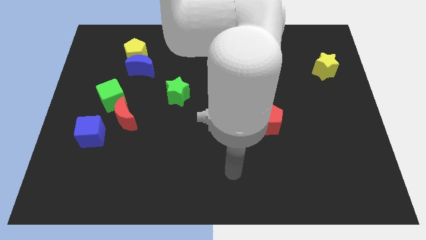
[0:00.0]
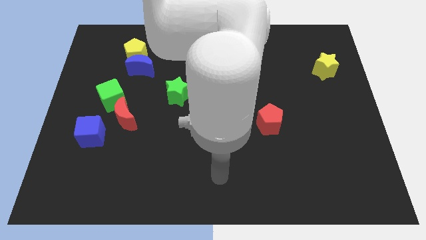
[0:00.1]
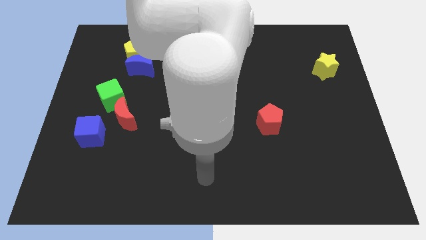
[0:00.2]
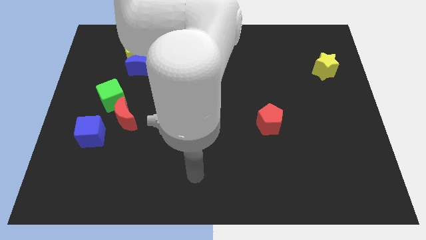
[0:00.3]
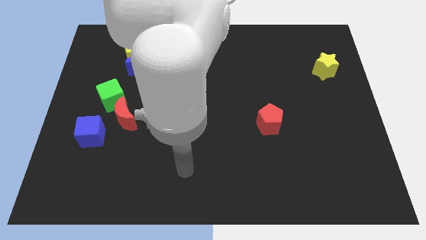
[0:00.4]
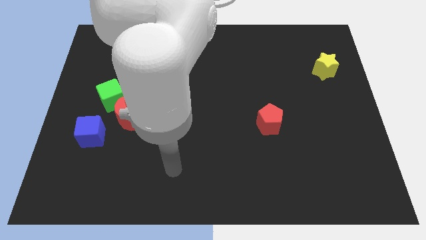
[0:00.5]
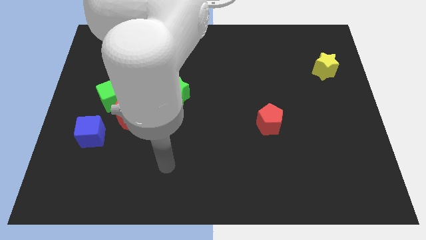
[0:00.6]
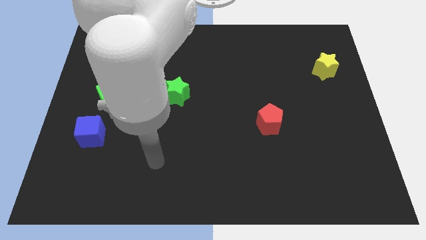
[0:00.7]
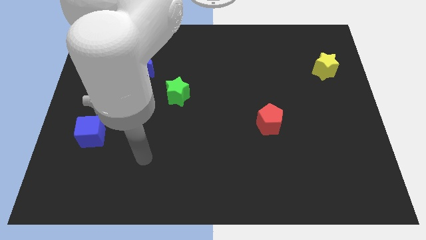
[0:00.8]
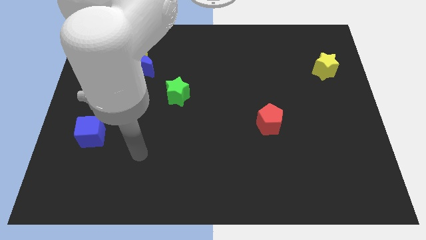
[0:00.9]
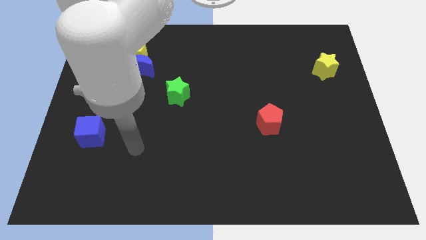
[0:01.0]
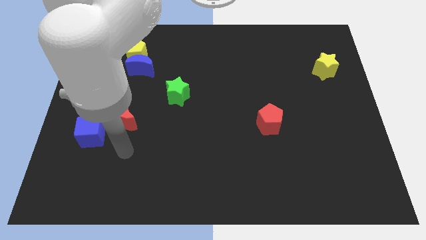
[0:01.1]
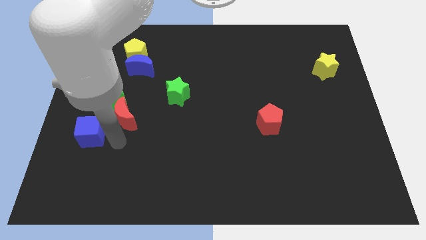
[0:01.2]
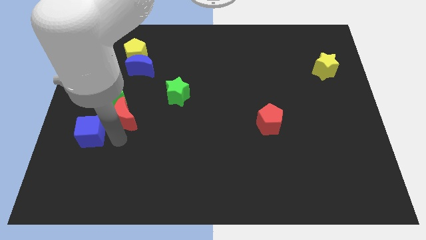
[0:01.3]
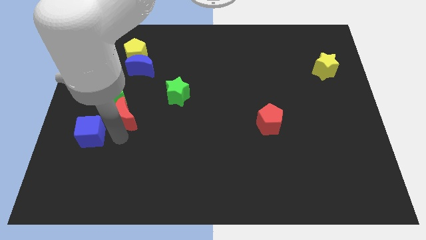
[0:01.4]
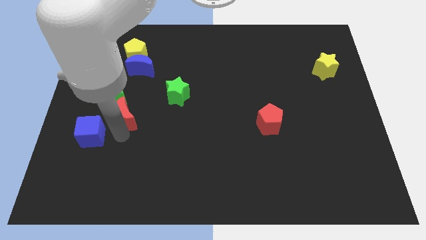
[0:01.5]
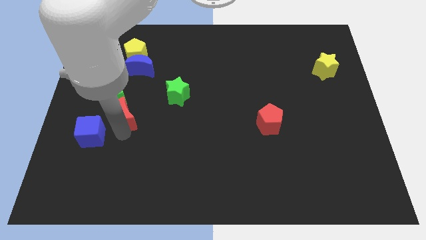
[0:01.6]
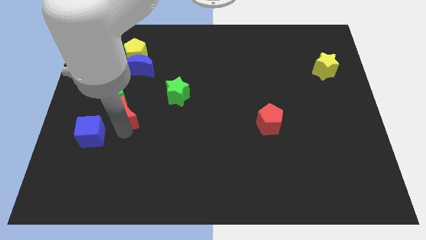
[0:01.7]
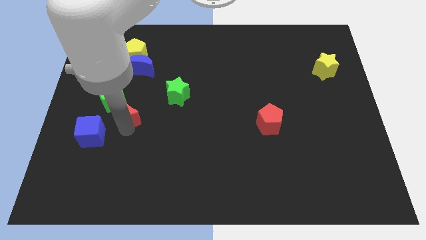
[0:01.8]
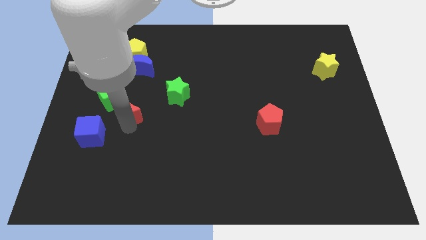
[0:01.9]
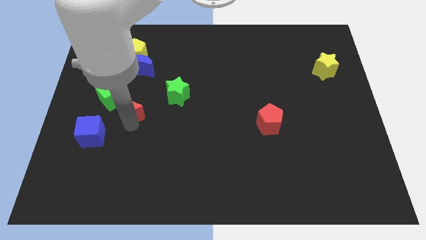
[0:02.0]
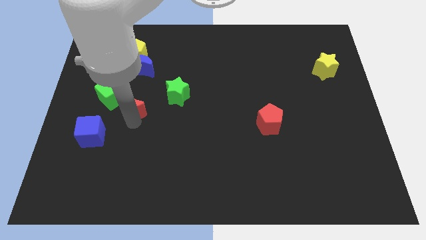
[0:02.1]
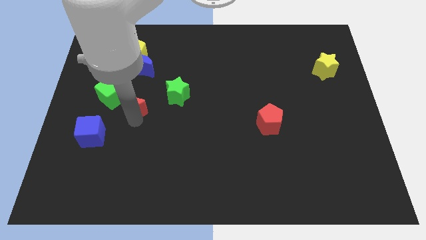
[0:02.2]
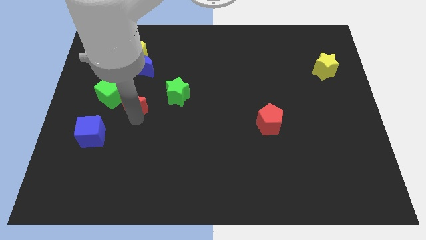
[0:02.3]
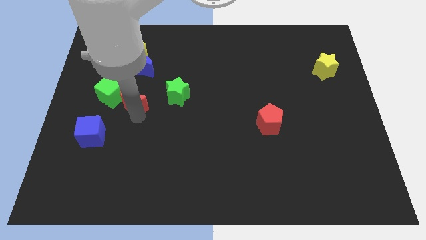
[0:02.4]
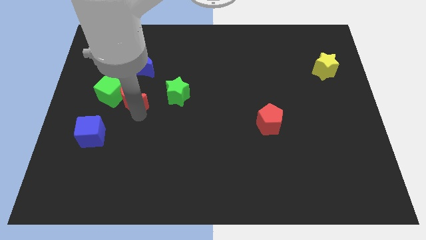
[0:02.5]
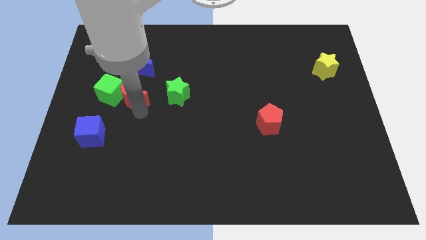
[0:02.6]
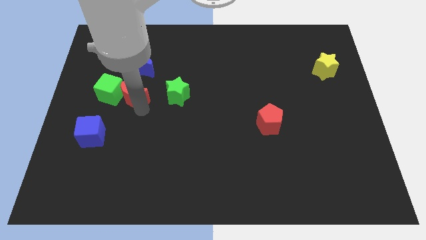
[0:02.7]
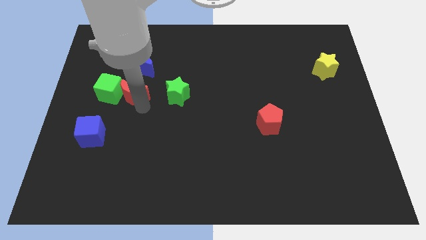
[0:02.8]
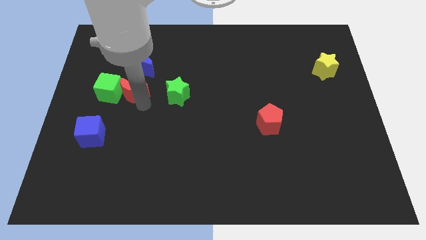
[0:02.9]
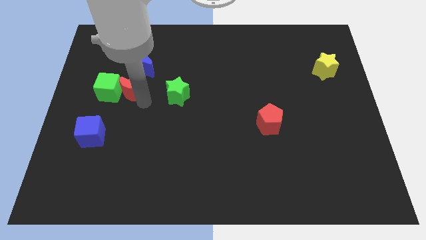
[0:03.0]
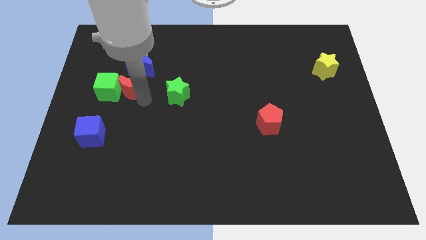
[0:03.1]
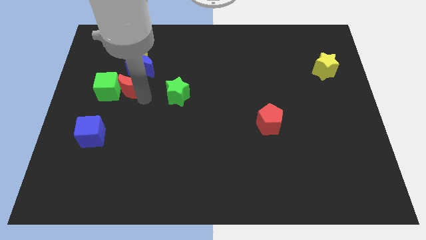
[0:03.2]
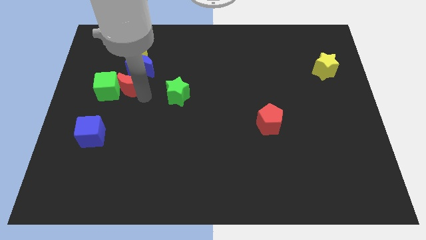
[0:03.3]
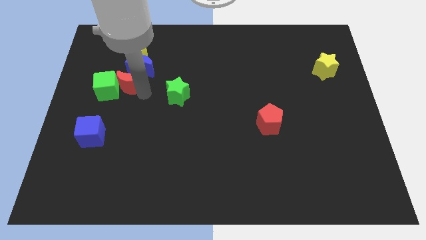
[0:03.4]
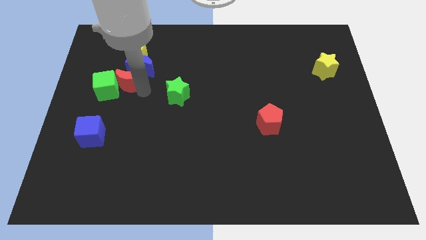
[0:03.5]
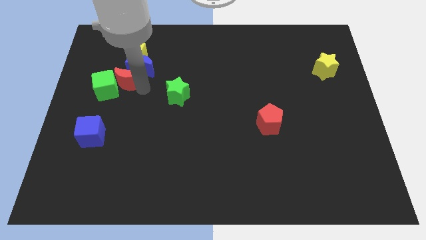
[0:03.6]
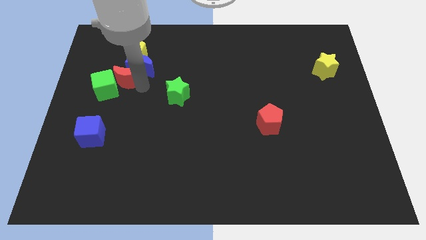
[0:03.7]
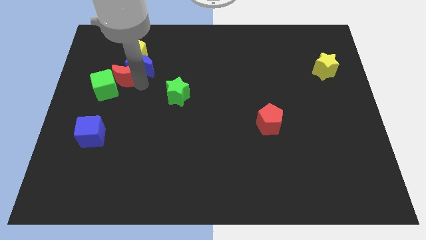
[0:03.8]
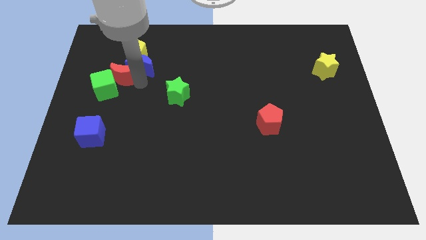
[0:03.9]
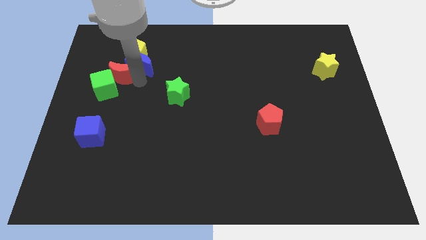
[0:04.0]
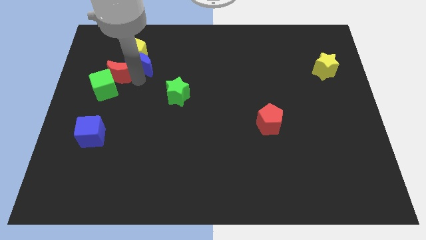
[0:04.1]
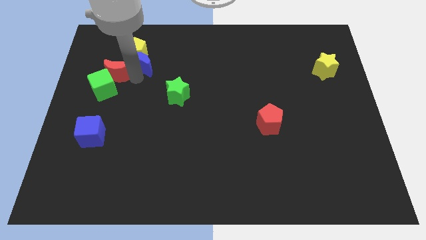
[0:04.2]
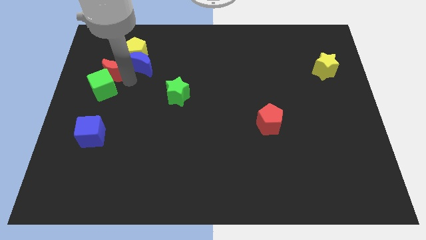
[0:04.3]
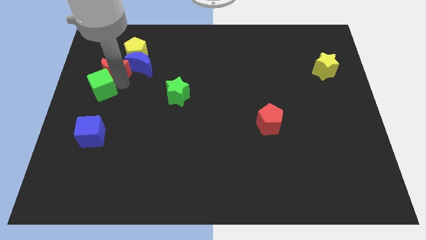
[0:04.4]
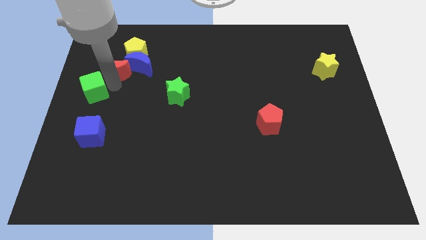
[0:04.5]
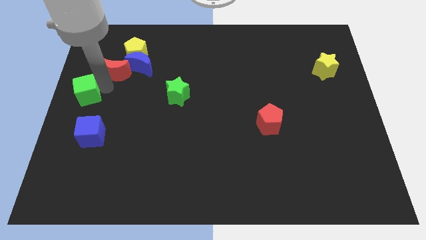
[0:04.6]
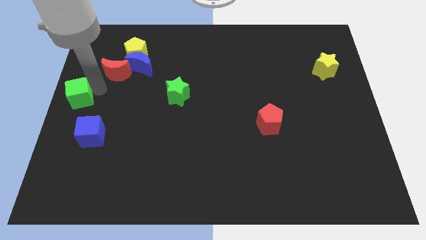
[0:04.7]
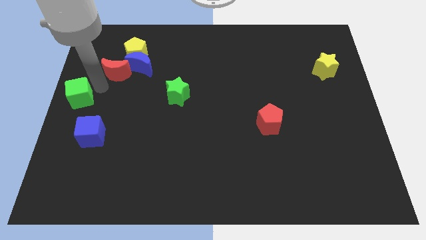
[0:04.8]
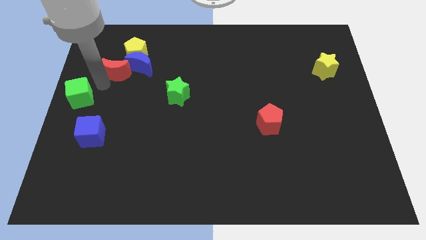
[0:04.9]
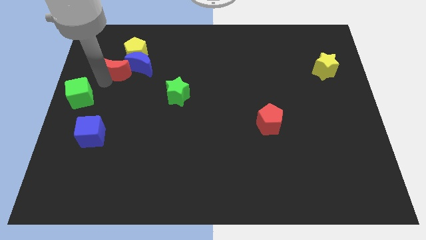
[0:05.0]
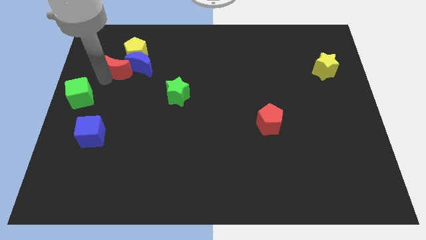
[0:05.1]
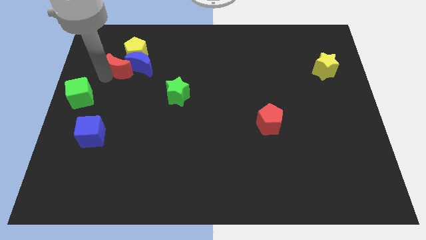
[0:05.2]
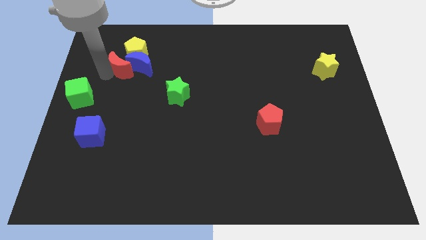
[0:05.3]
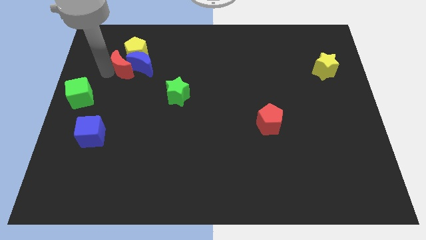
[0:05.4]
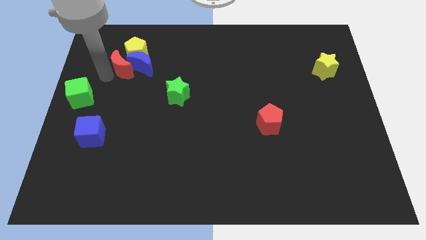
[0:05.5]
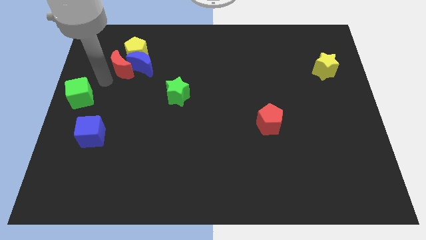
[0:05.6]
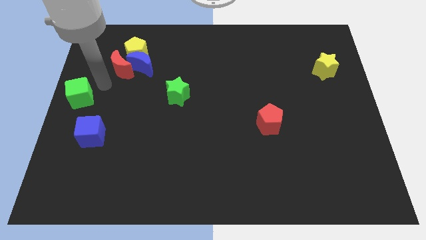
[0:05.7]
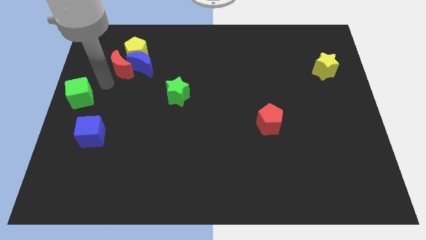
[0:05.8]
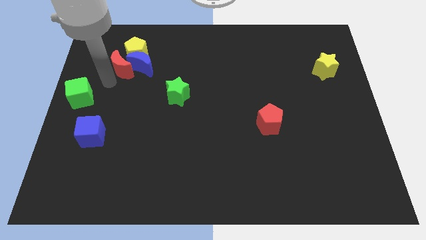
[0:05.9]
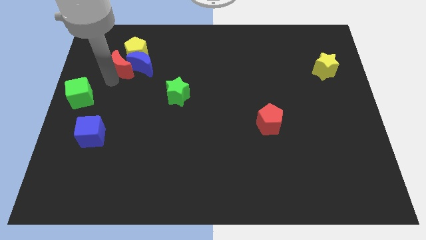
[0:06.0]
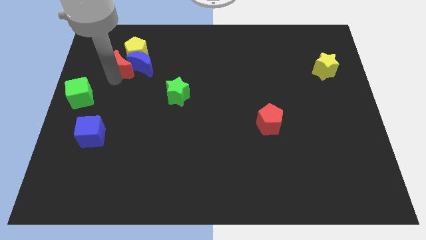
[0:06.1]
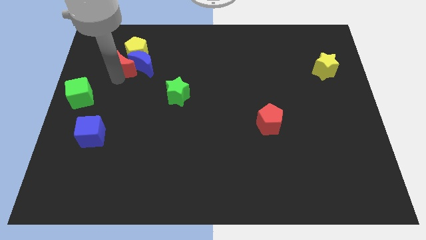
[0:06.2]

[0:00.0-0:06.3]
push the red moon next to the yellow pentagon

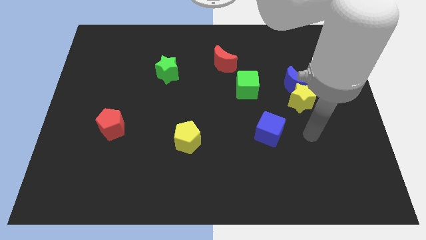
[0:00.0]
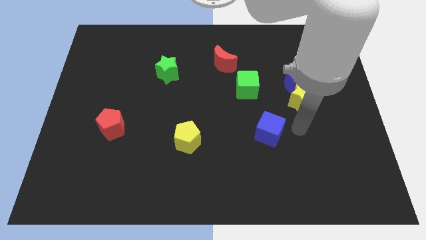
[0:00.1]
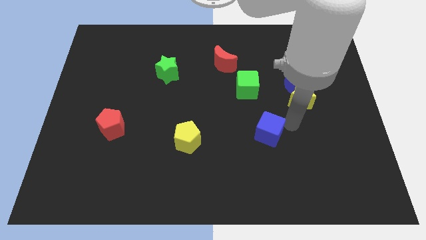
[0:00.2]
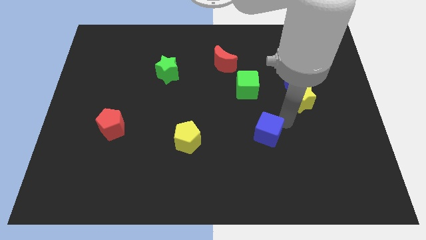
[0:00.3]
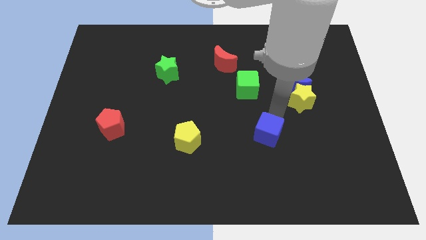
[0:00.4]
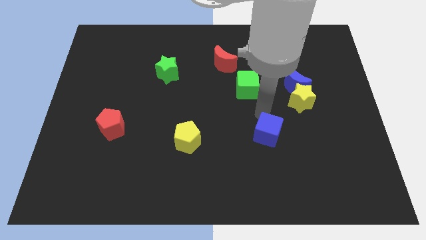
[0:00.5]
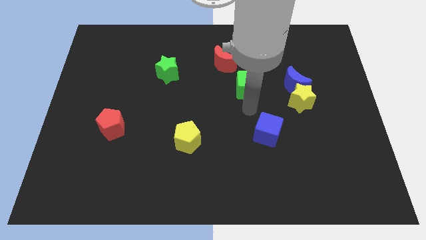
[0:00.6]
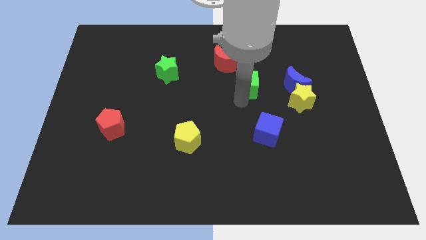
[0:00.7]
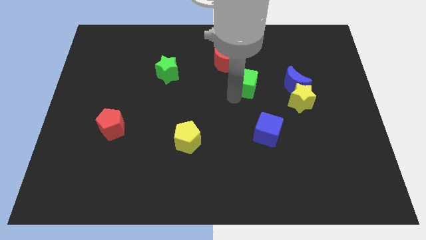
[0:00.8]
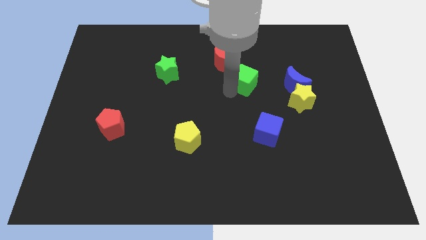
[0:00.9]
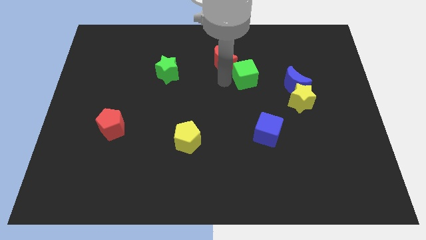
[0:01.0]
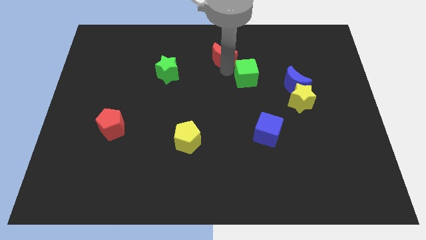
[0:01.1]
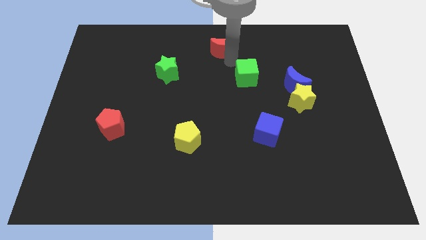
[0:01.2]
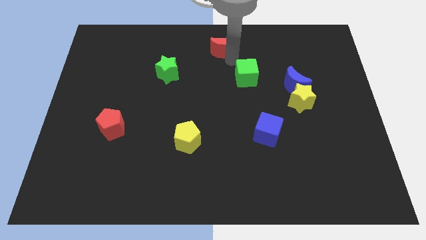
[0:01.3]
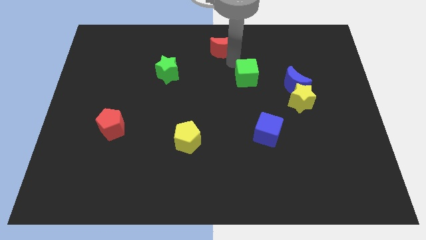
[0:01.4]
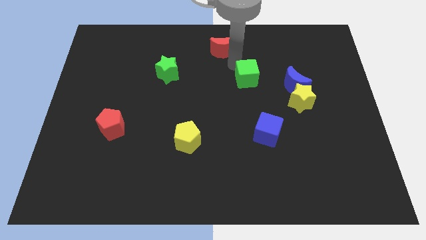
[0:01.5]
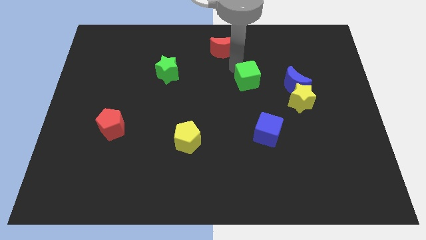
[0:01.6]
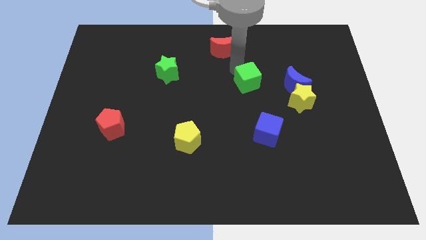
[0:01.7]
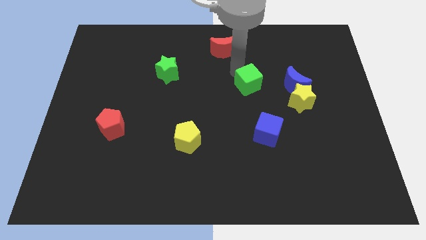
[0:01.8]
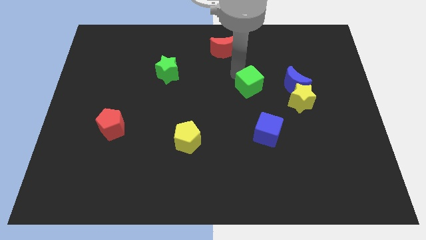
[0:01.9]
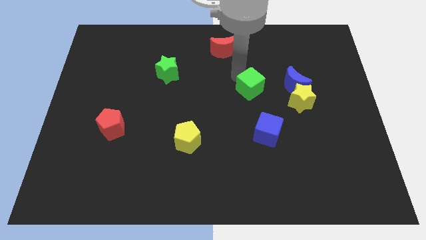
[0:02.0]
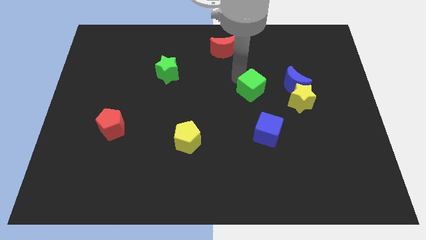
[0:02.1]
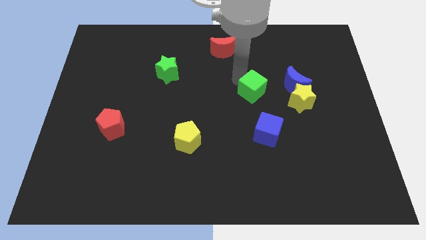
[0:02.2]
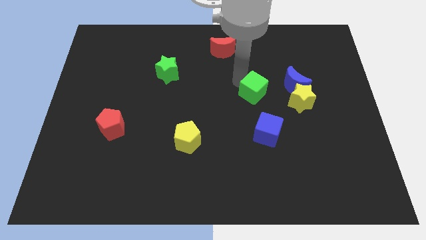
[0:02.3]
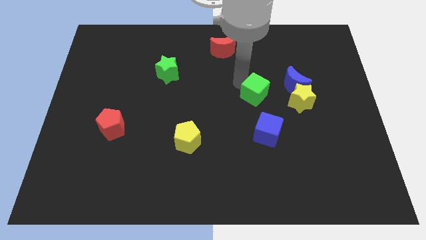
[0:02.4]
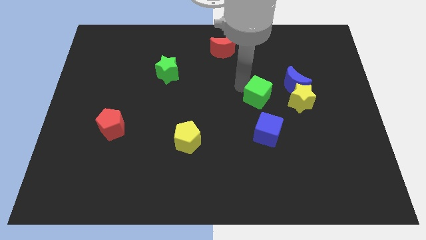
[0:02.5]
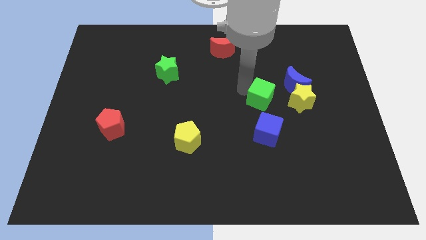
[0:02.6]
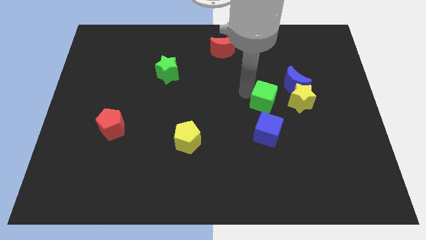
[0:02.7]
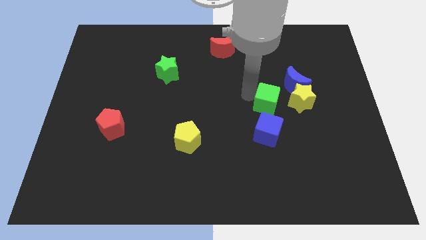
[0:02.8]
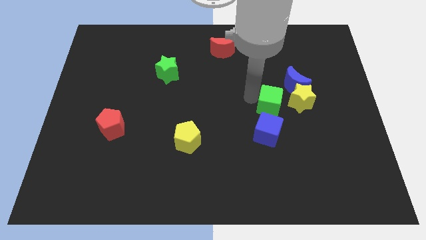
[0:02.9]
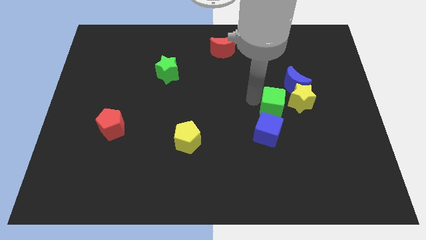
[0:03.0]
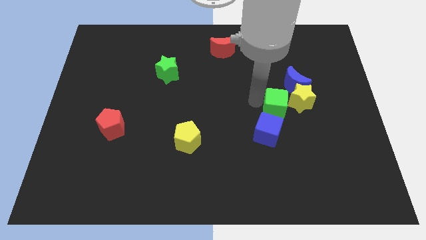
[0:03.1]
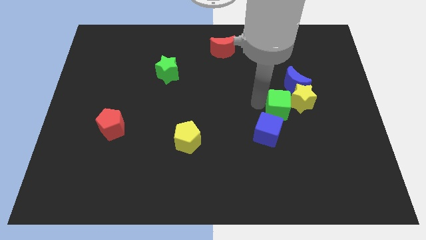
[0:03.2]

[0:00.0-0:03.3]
put the green cube next to the yellow star
